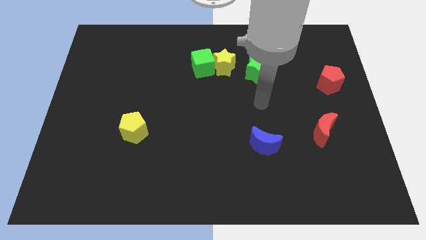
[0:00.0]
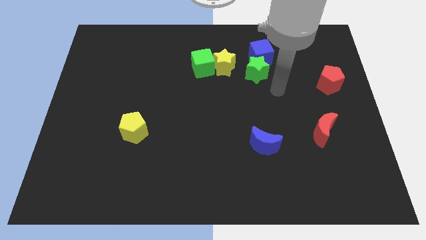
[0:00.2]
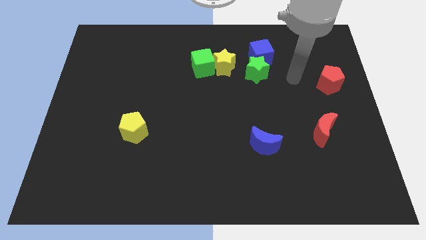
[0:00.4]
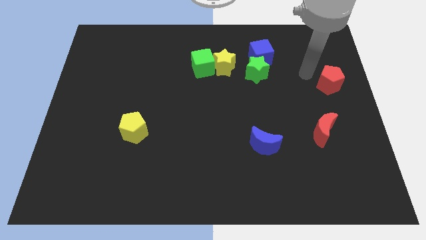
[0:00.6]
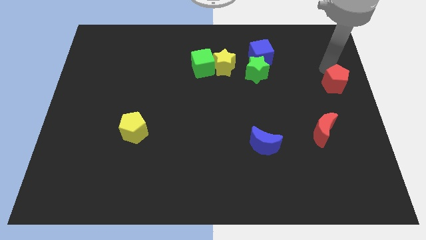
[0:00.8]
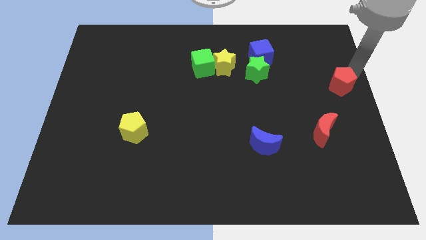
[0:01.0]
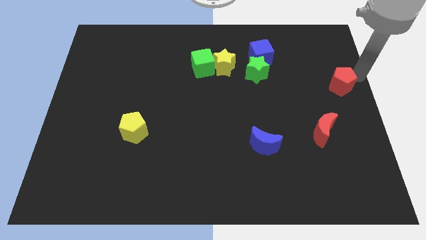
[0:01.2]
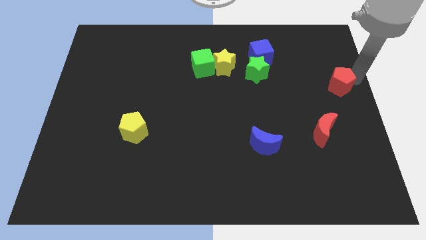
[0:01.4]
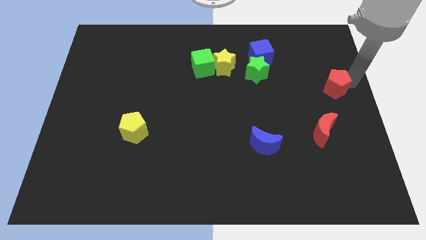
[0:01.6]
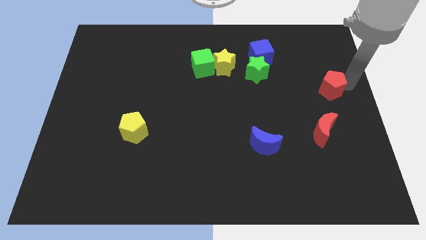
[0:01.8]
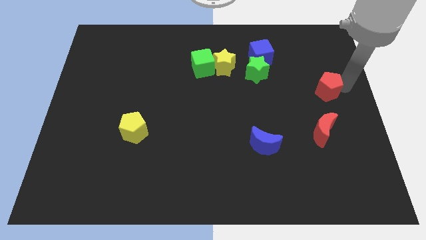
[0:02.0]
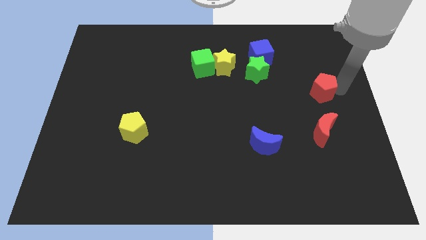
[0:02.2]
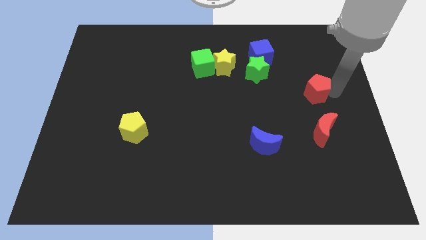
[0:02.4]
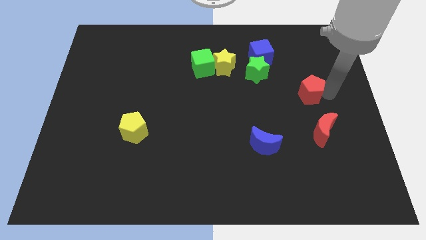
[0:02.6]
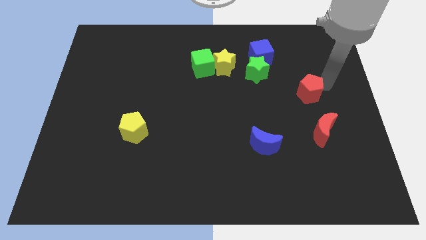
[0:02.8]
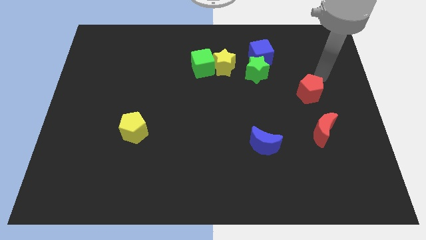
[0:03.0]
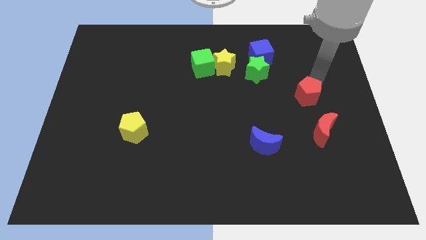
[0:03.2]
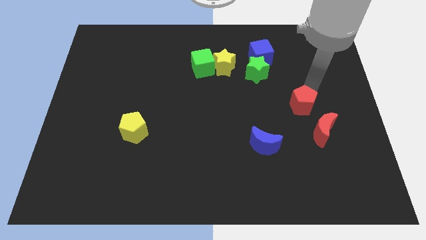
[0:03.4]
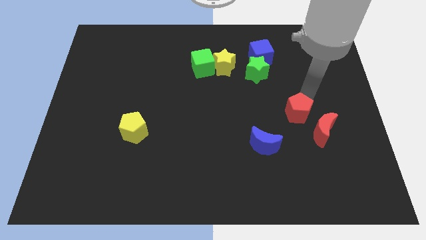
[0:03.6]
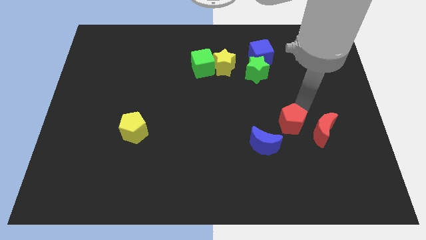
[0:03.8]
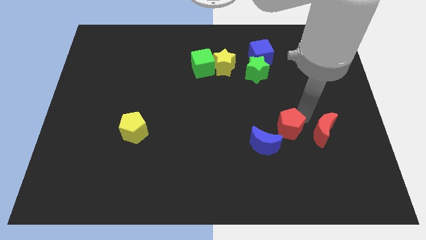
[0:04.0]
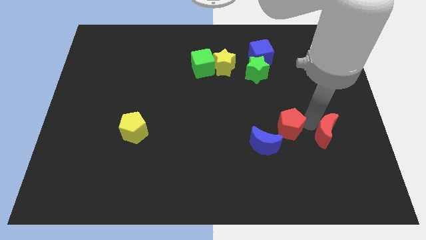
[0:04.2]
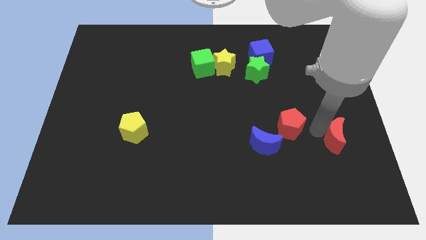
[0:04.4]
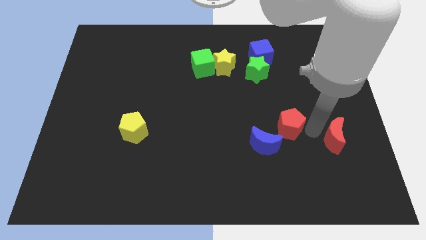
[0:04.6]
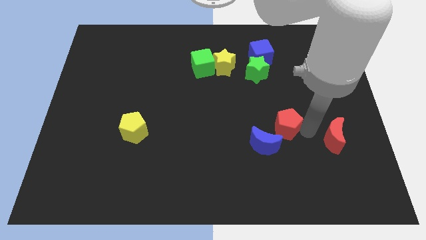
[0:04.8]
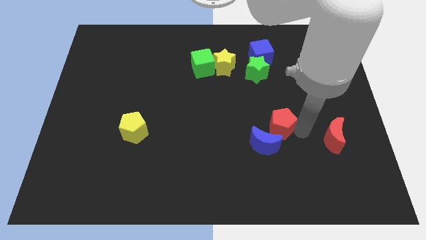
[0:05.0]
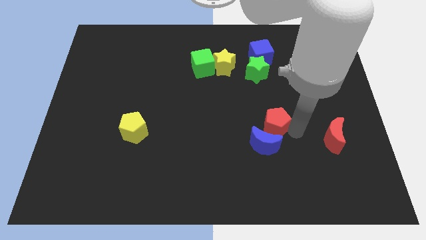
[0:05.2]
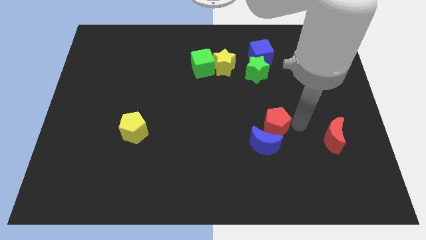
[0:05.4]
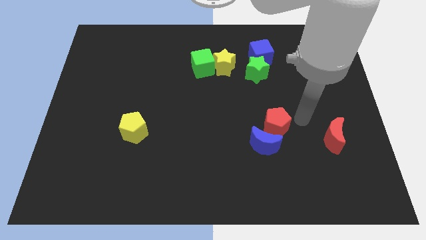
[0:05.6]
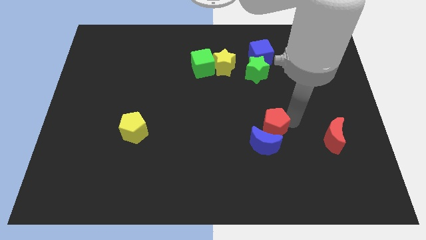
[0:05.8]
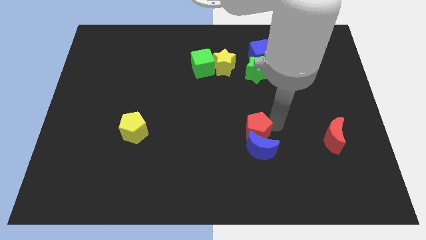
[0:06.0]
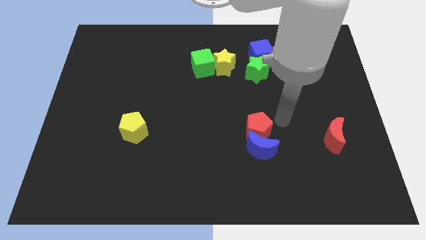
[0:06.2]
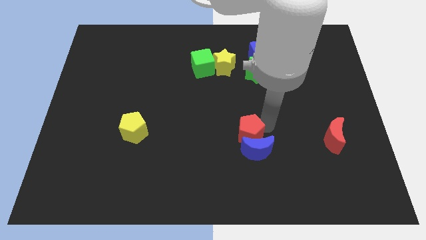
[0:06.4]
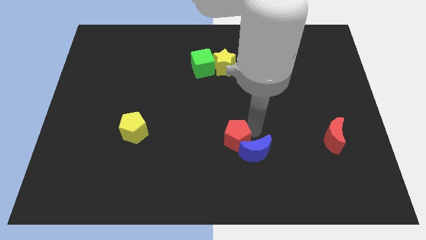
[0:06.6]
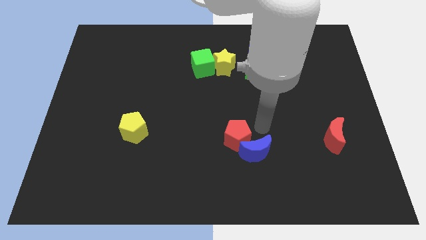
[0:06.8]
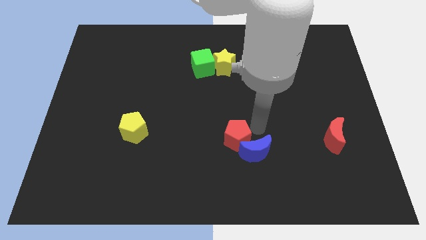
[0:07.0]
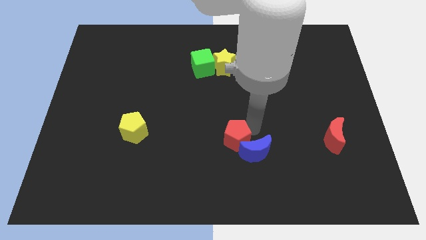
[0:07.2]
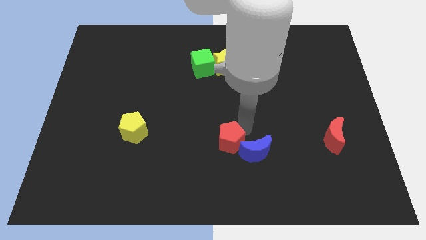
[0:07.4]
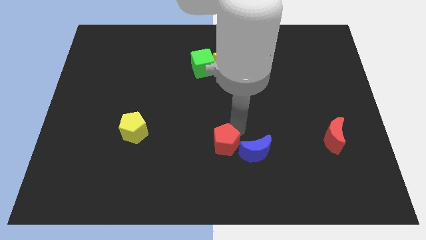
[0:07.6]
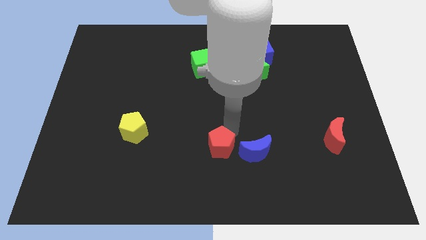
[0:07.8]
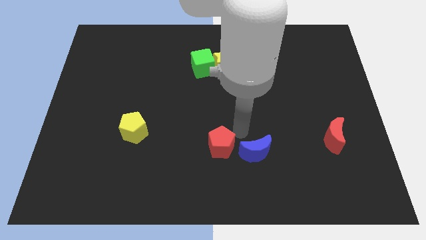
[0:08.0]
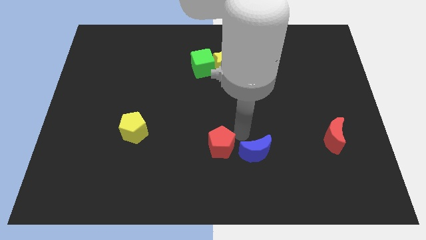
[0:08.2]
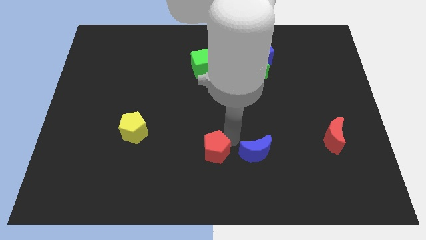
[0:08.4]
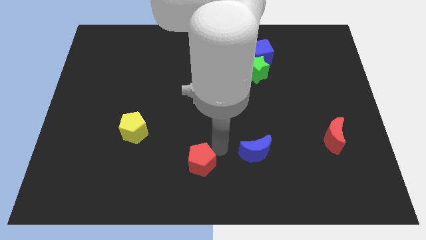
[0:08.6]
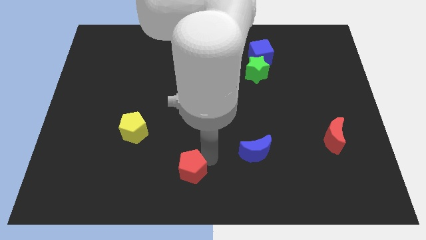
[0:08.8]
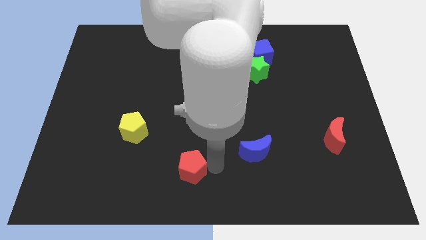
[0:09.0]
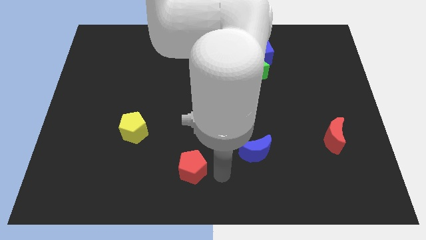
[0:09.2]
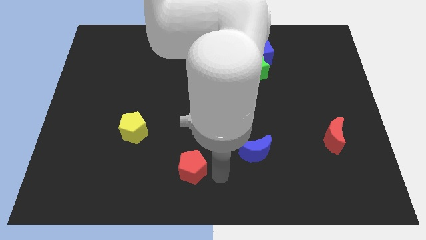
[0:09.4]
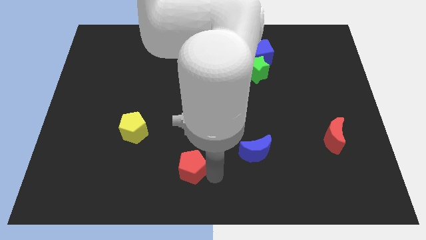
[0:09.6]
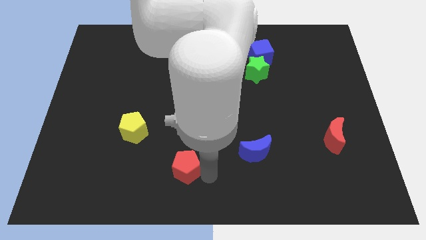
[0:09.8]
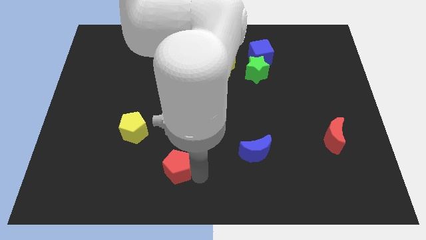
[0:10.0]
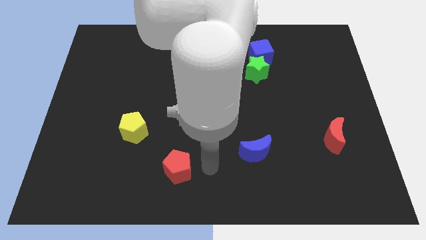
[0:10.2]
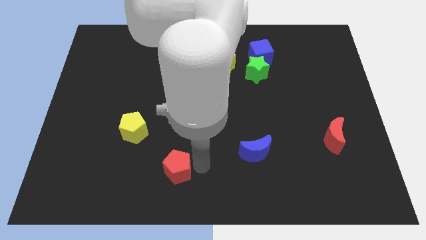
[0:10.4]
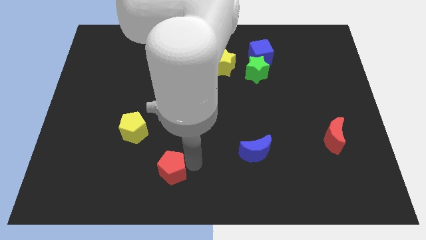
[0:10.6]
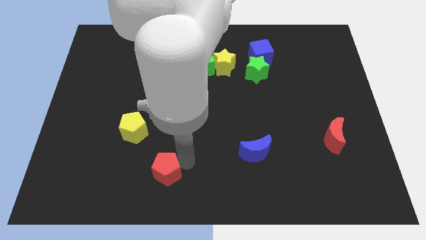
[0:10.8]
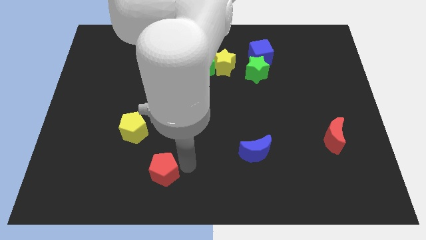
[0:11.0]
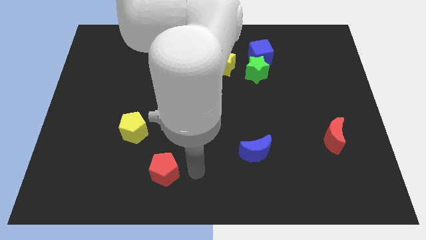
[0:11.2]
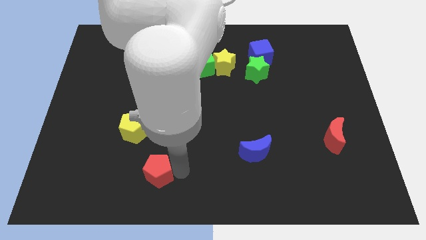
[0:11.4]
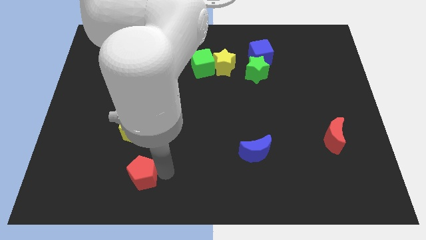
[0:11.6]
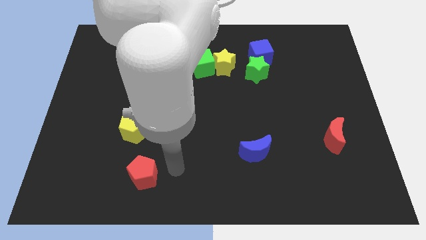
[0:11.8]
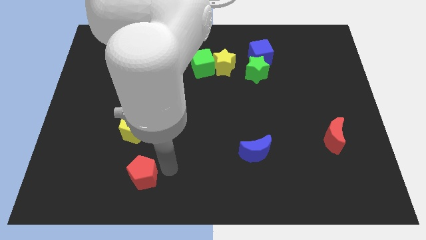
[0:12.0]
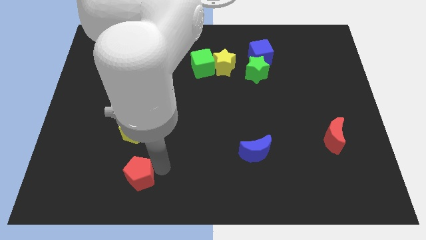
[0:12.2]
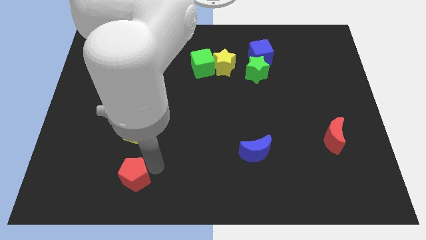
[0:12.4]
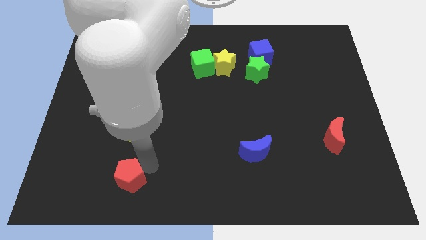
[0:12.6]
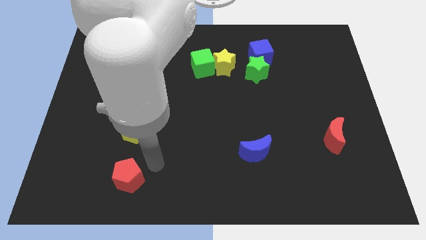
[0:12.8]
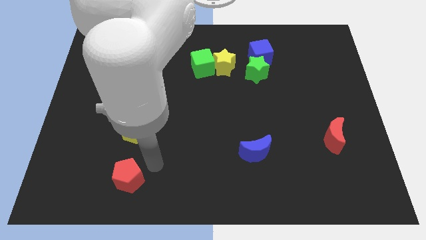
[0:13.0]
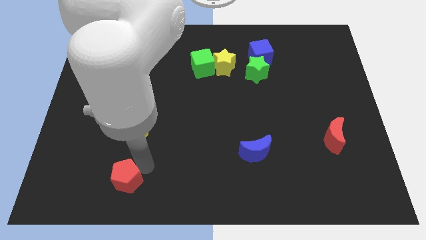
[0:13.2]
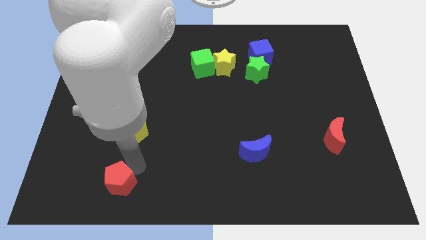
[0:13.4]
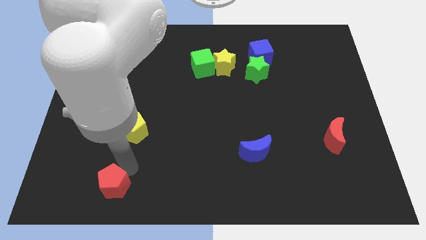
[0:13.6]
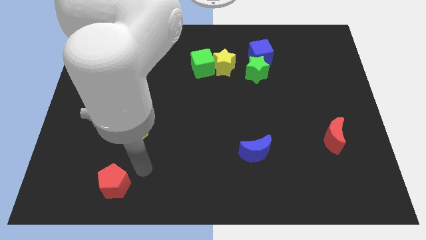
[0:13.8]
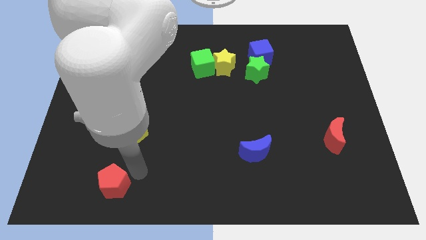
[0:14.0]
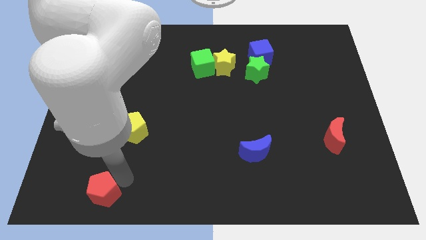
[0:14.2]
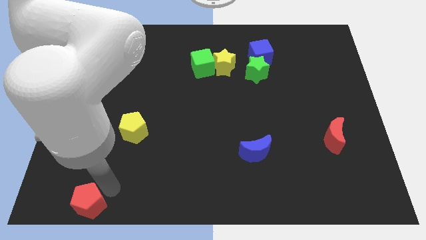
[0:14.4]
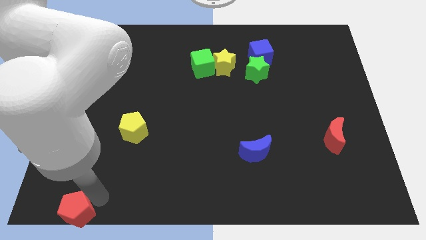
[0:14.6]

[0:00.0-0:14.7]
put the red pentagon to the bottom left corner
